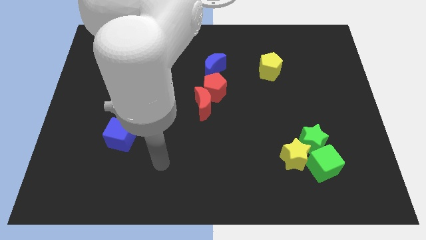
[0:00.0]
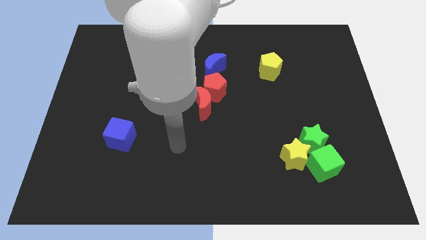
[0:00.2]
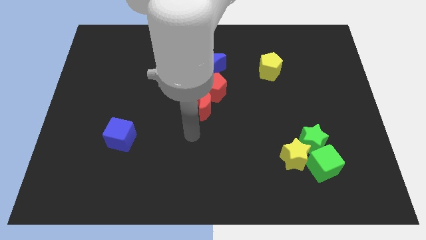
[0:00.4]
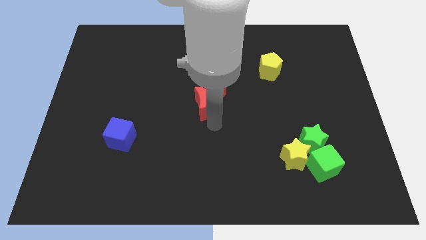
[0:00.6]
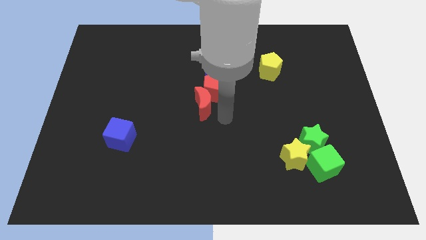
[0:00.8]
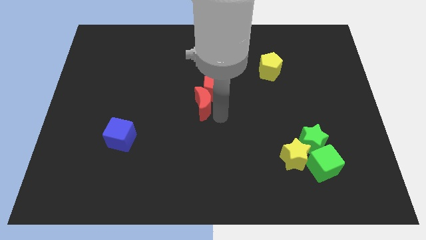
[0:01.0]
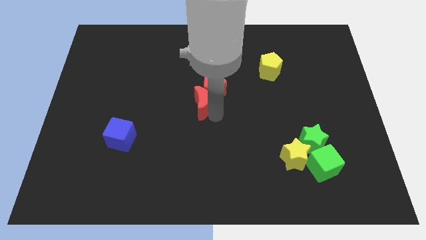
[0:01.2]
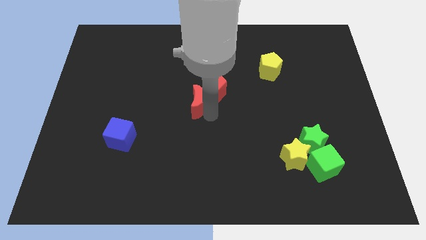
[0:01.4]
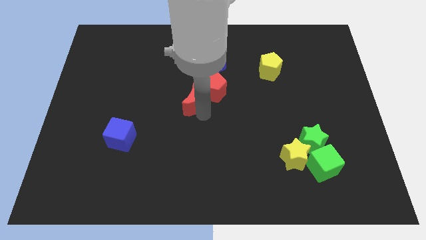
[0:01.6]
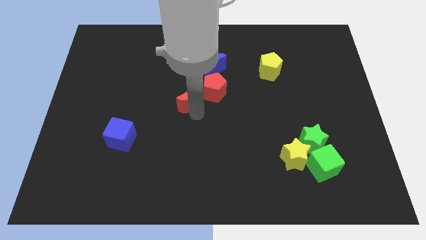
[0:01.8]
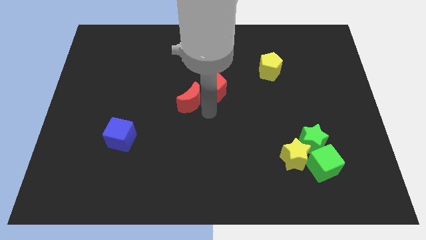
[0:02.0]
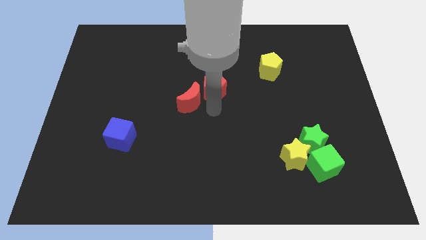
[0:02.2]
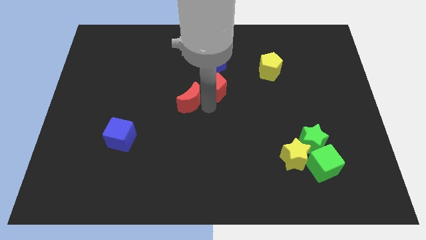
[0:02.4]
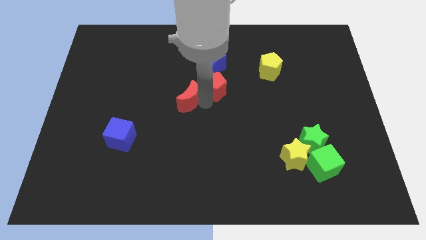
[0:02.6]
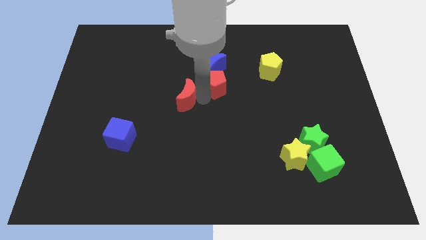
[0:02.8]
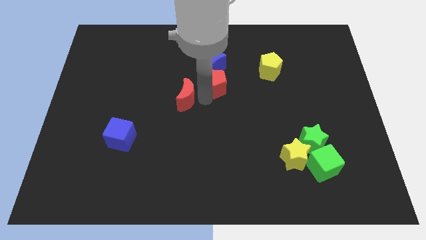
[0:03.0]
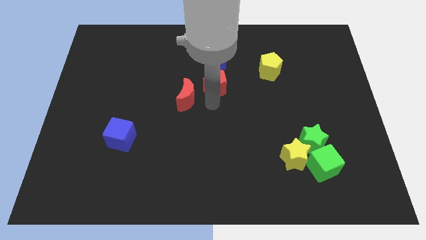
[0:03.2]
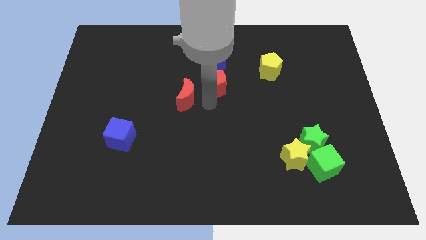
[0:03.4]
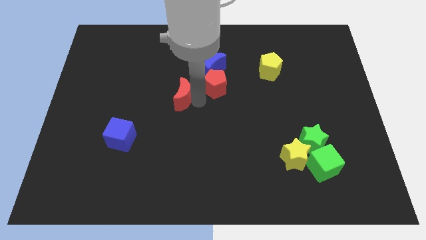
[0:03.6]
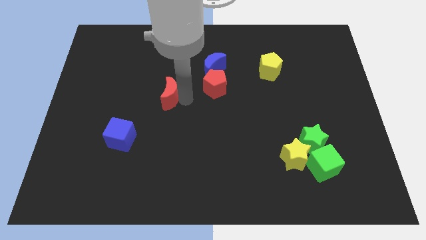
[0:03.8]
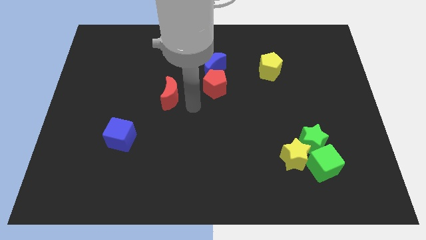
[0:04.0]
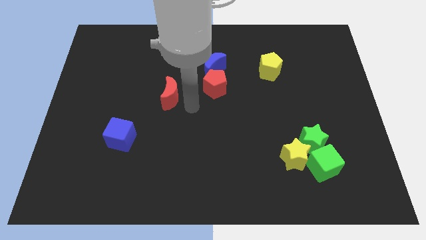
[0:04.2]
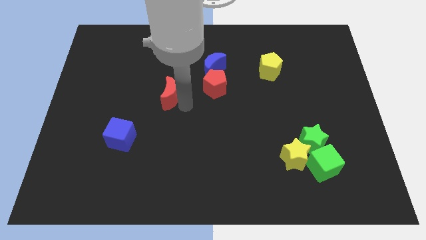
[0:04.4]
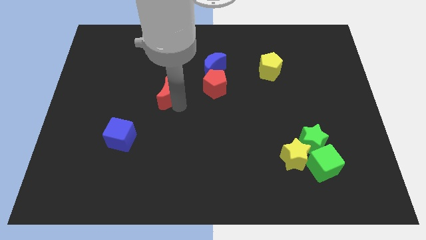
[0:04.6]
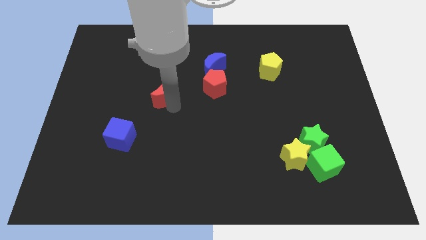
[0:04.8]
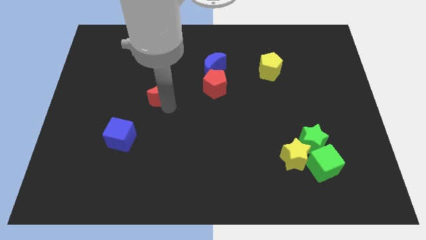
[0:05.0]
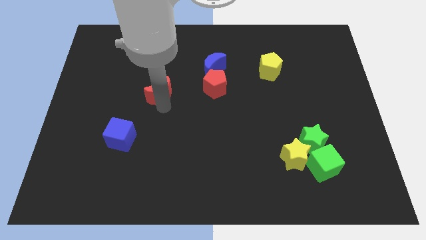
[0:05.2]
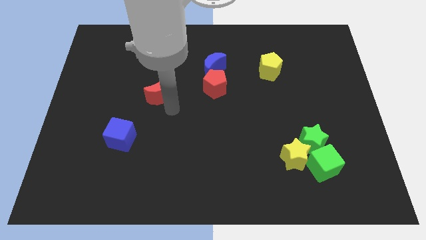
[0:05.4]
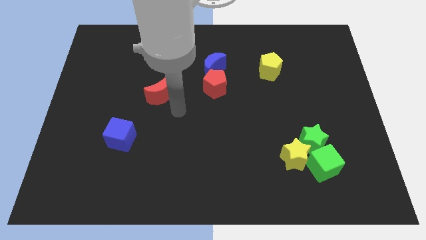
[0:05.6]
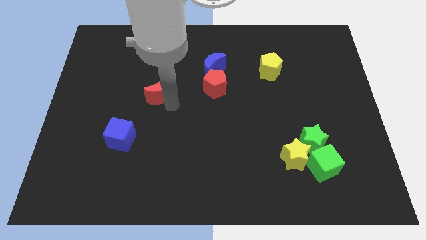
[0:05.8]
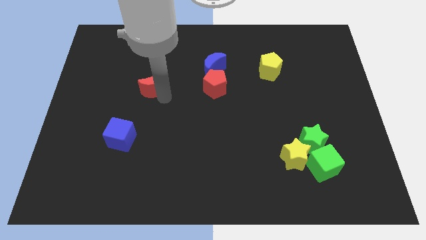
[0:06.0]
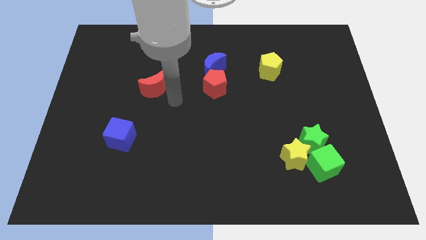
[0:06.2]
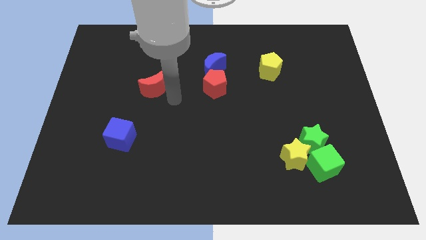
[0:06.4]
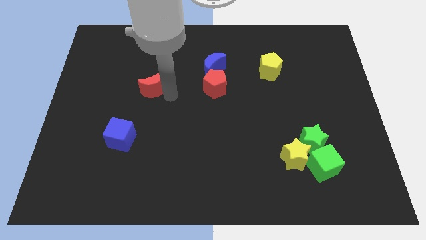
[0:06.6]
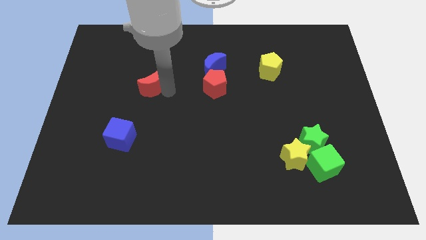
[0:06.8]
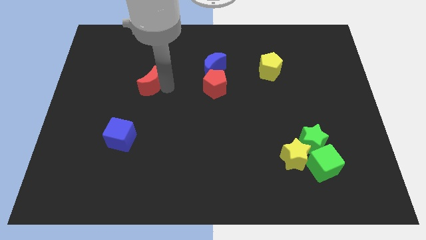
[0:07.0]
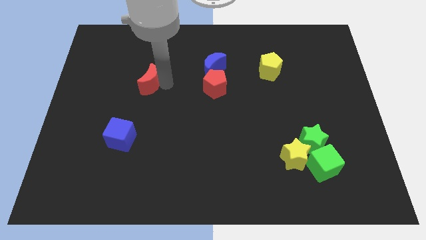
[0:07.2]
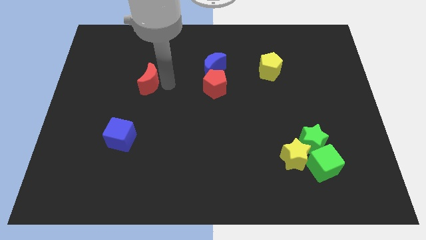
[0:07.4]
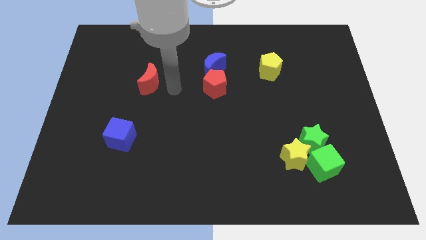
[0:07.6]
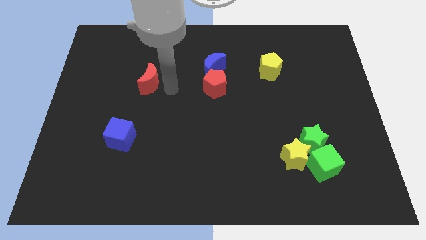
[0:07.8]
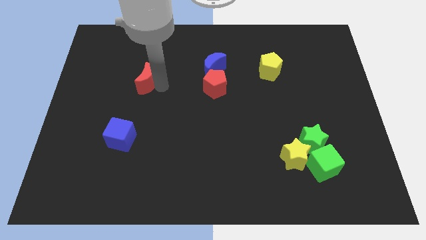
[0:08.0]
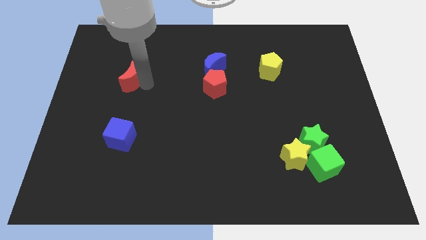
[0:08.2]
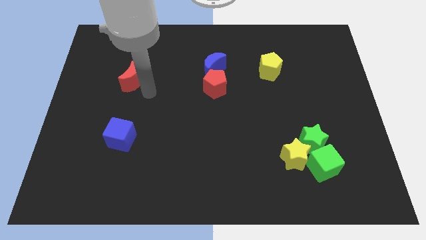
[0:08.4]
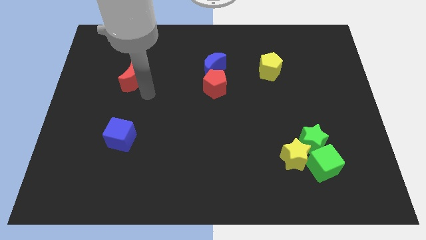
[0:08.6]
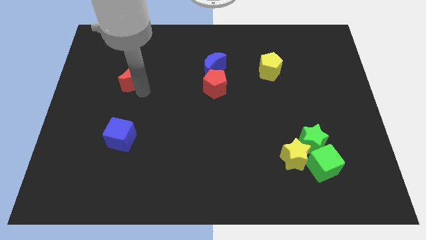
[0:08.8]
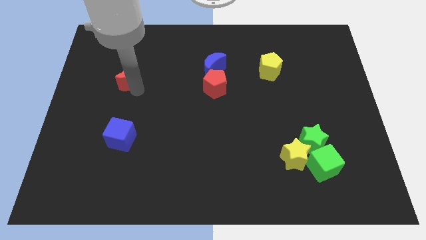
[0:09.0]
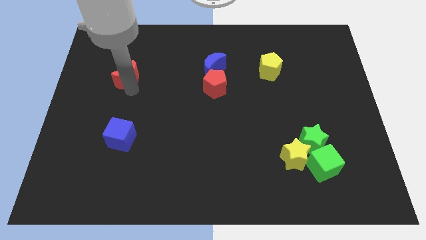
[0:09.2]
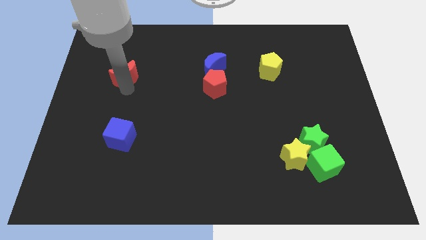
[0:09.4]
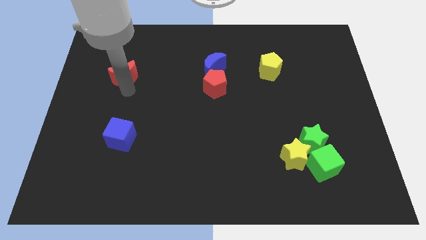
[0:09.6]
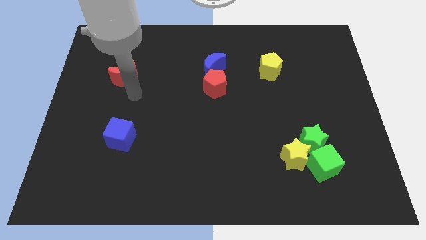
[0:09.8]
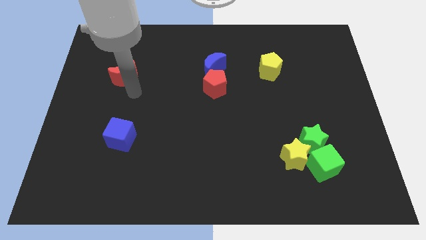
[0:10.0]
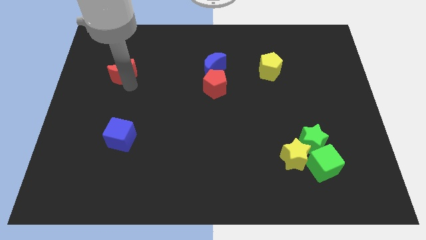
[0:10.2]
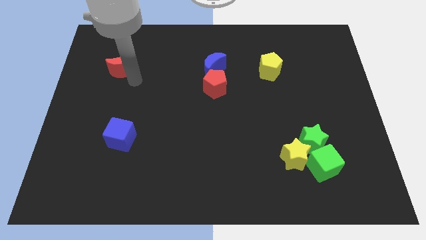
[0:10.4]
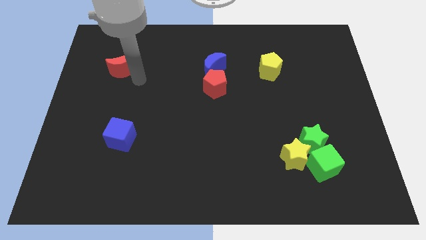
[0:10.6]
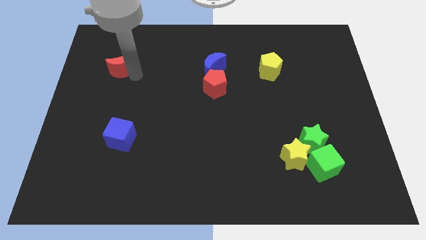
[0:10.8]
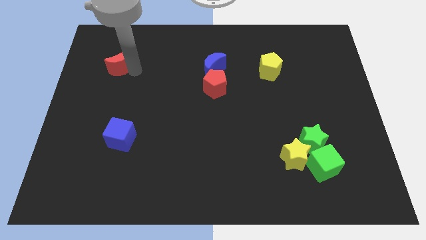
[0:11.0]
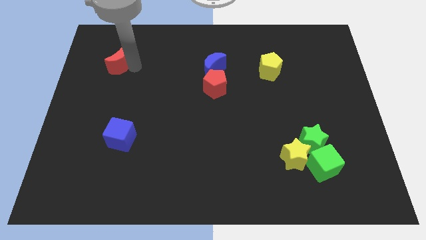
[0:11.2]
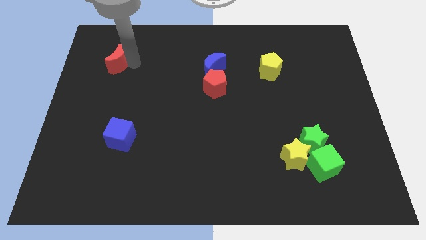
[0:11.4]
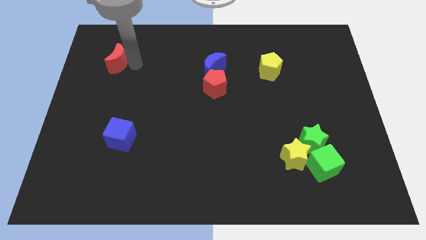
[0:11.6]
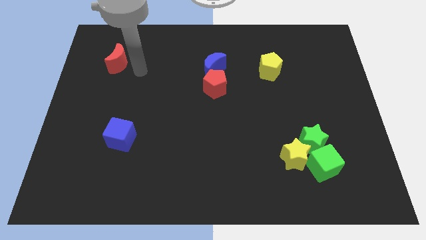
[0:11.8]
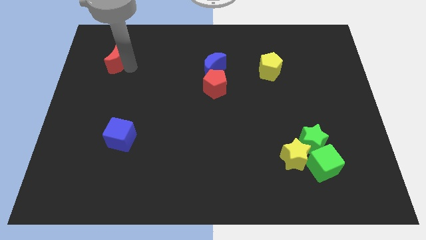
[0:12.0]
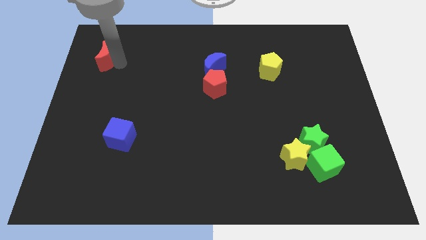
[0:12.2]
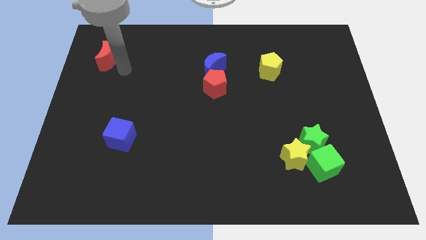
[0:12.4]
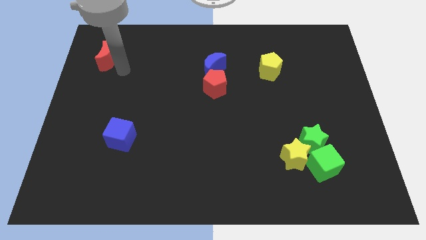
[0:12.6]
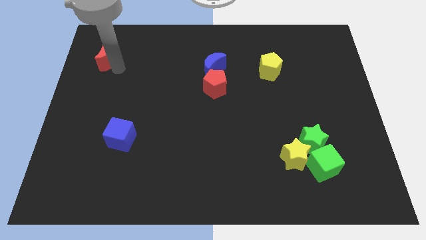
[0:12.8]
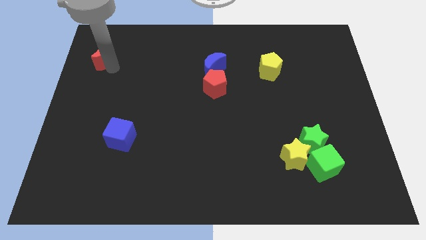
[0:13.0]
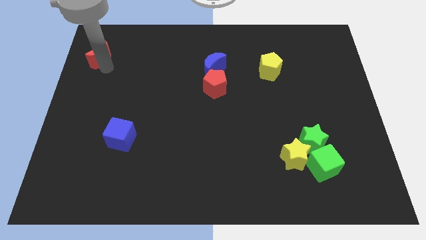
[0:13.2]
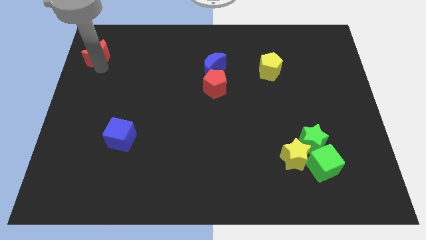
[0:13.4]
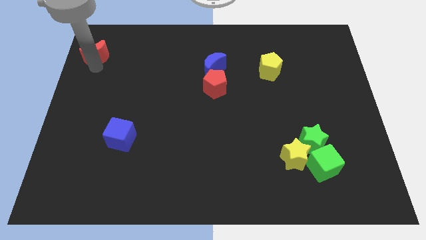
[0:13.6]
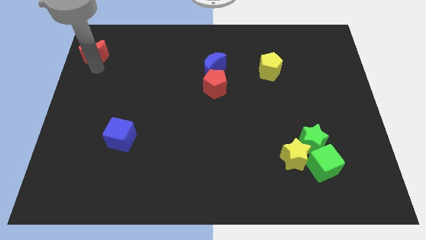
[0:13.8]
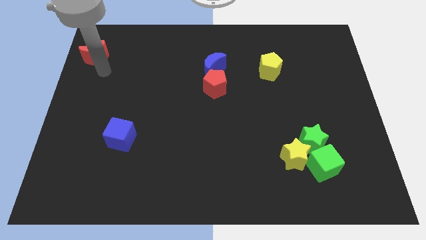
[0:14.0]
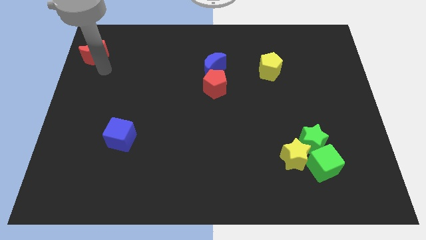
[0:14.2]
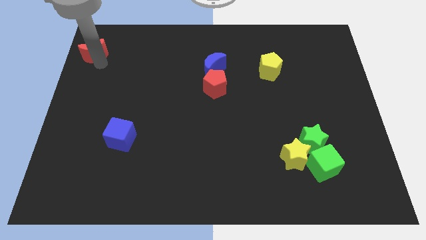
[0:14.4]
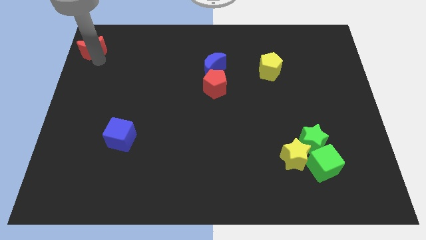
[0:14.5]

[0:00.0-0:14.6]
move the red moon to the top left
